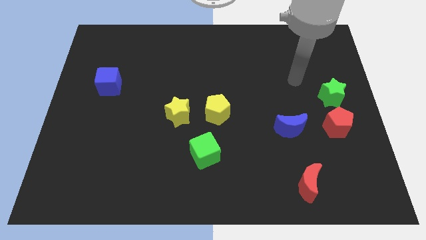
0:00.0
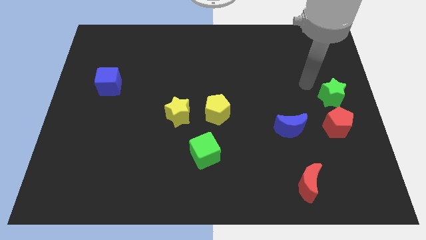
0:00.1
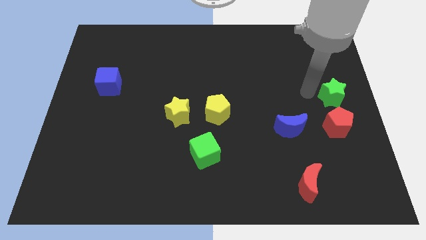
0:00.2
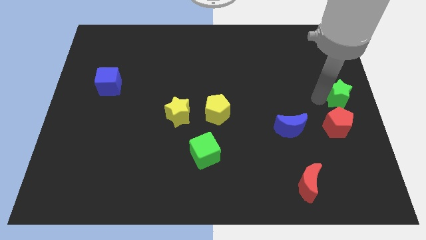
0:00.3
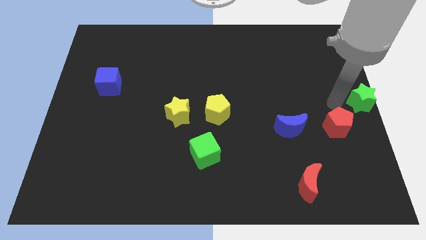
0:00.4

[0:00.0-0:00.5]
move the red pentagon away from the green star

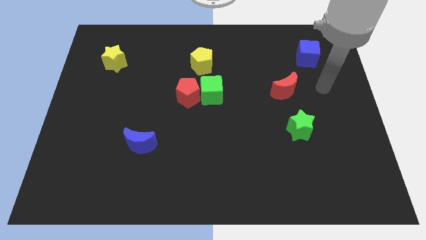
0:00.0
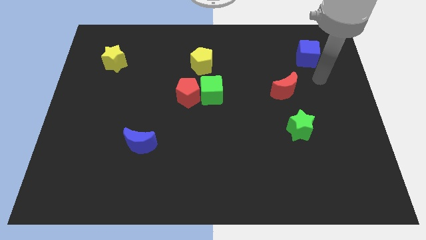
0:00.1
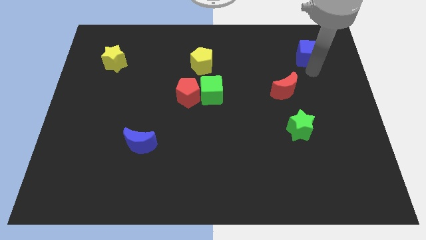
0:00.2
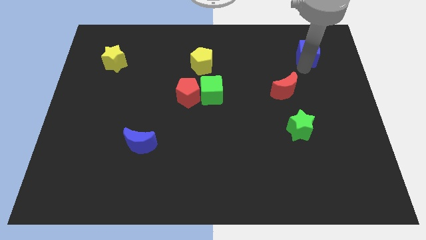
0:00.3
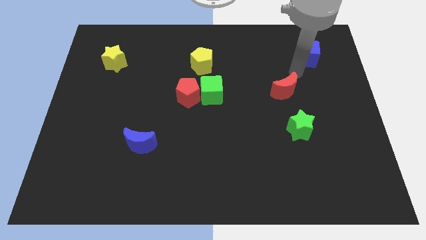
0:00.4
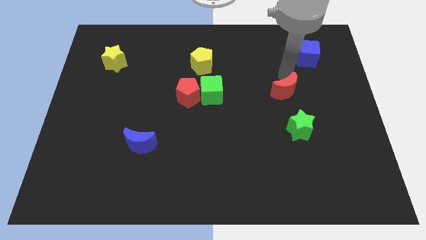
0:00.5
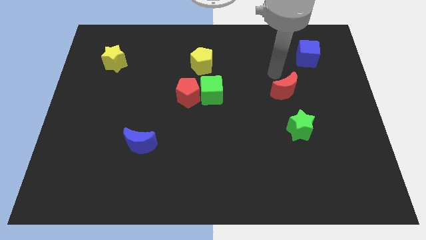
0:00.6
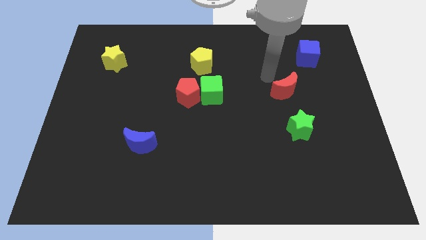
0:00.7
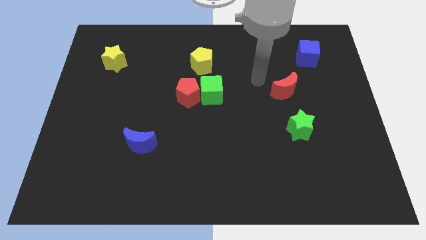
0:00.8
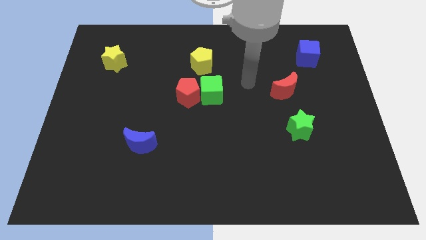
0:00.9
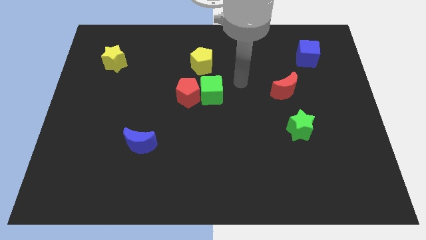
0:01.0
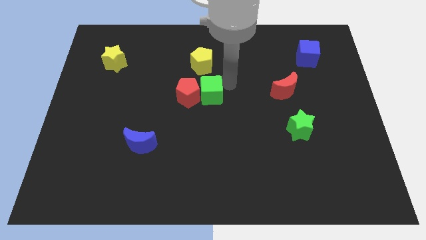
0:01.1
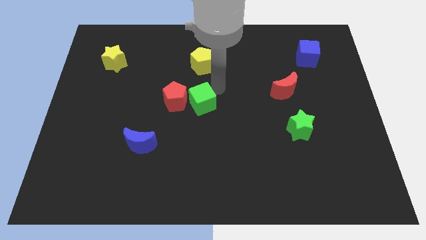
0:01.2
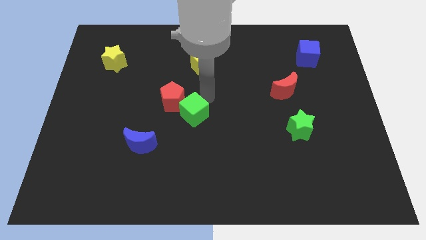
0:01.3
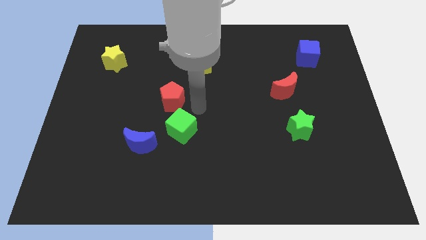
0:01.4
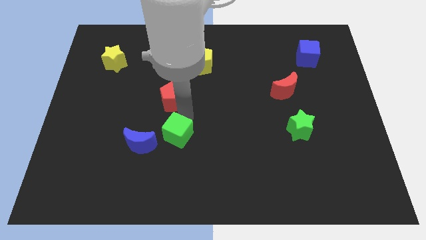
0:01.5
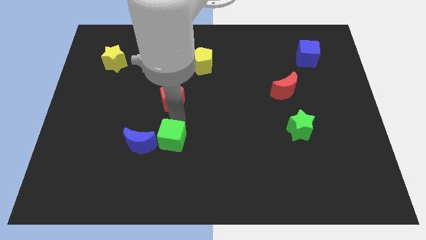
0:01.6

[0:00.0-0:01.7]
move the red pentagon away from the green cube

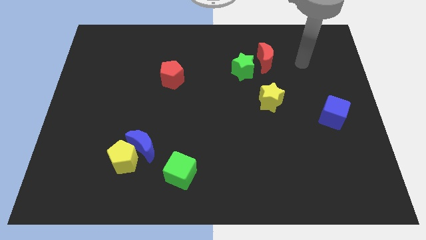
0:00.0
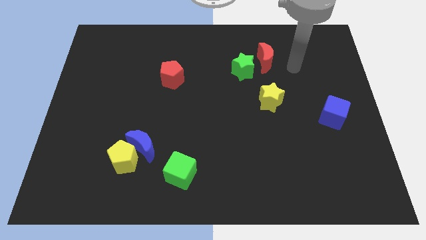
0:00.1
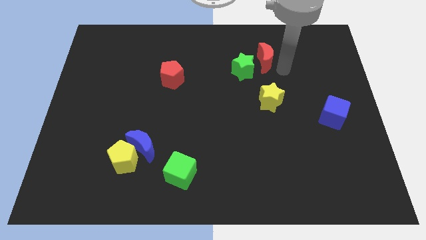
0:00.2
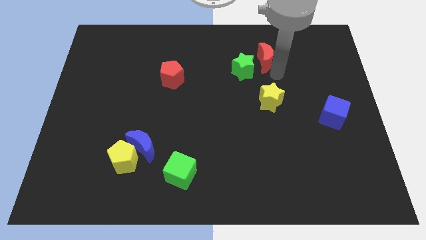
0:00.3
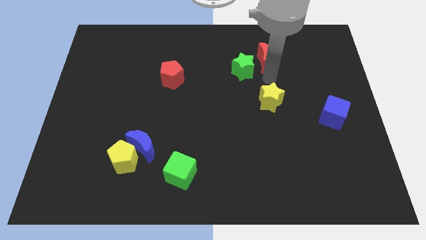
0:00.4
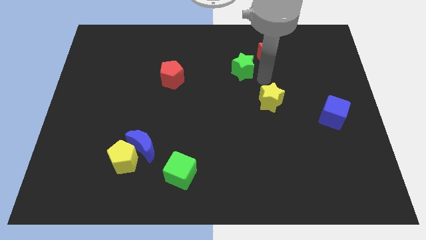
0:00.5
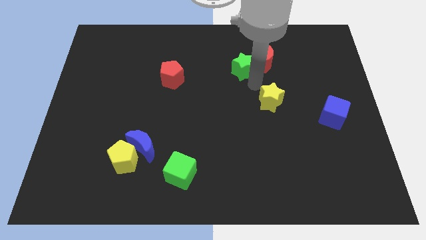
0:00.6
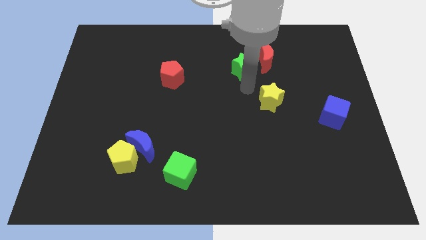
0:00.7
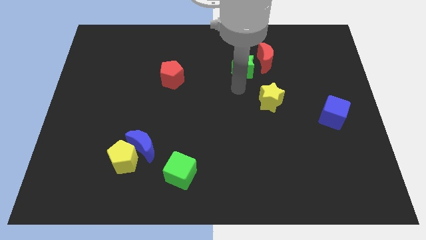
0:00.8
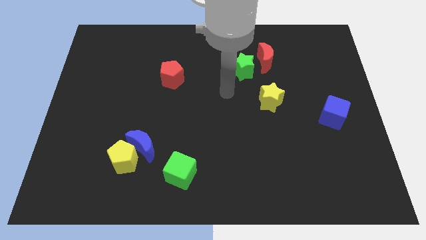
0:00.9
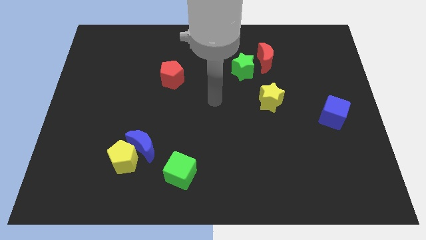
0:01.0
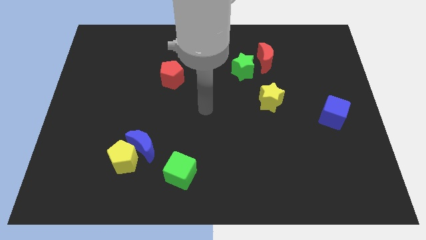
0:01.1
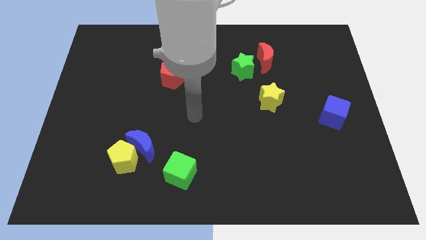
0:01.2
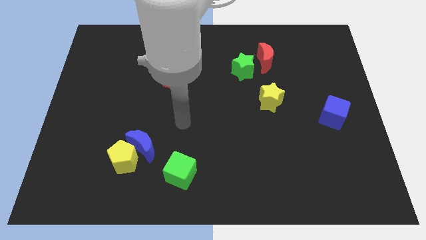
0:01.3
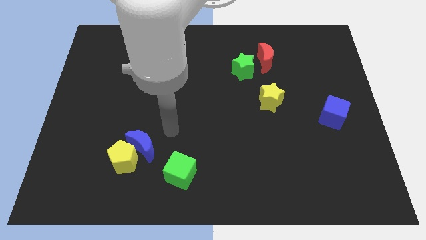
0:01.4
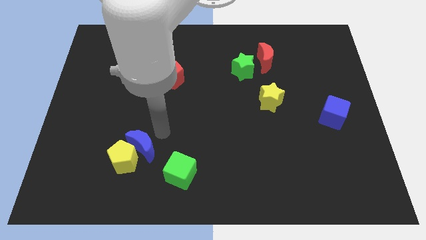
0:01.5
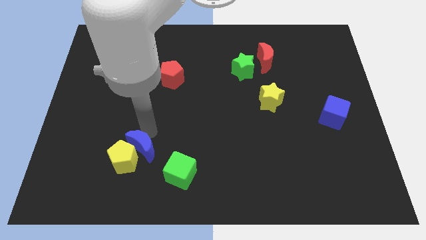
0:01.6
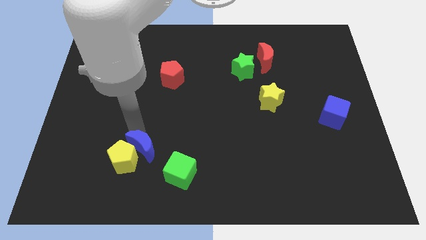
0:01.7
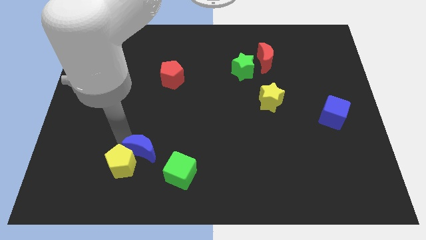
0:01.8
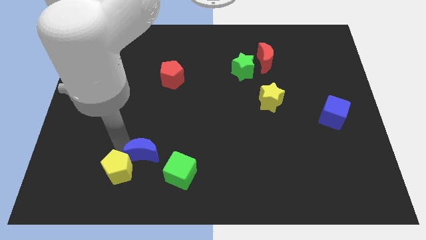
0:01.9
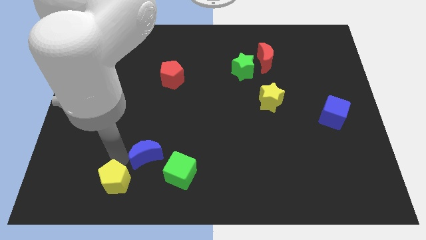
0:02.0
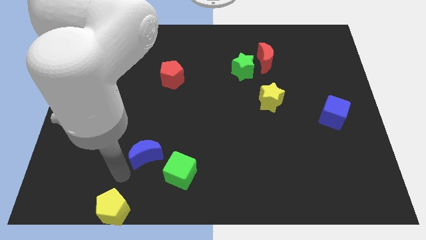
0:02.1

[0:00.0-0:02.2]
move the blue moon away from the yellow pentagon

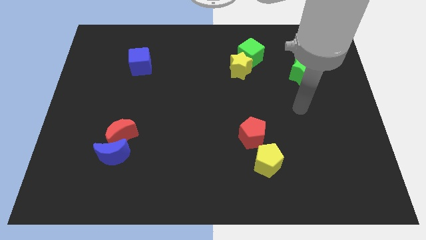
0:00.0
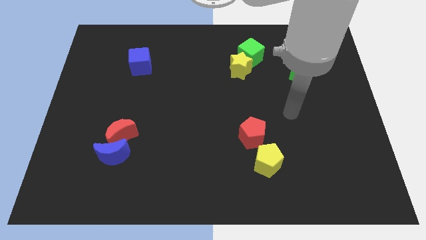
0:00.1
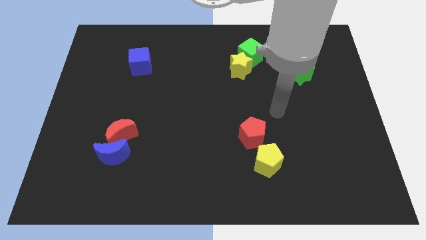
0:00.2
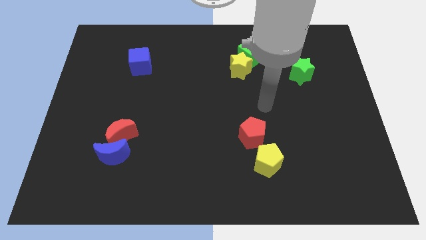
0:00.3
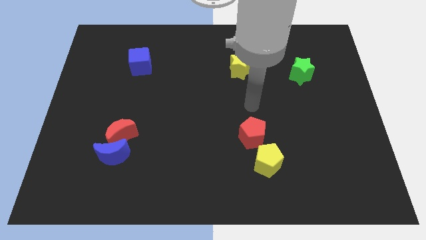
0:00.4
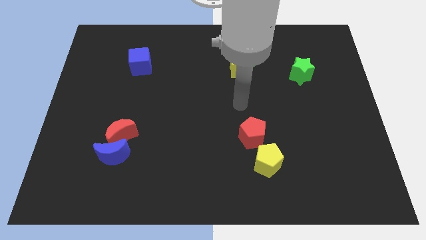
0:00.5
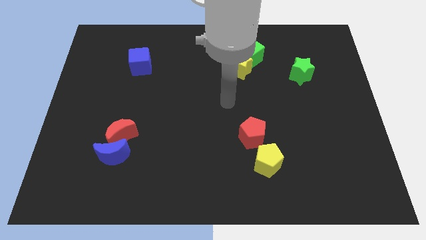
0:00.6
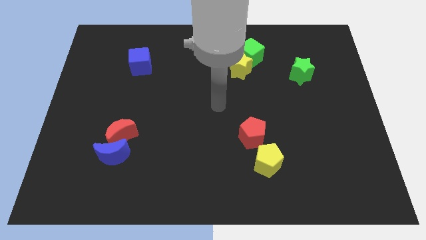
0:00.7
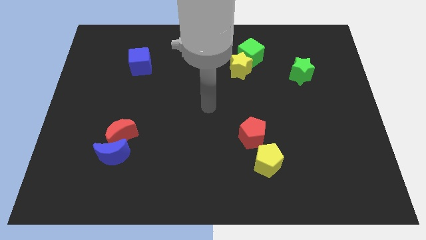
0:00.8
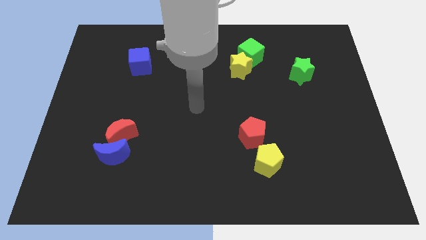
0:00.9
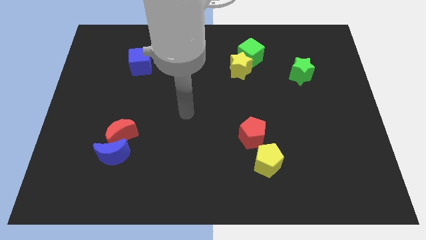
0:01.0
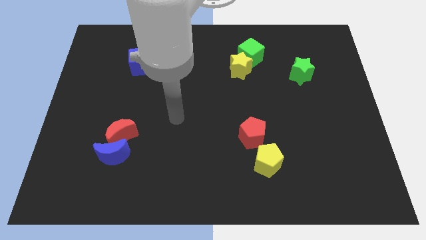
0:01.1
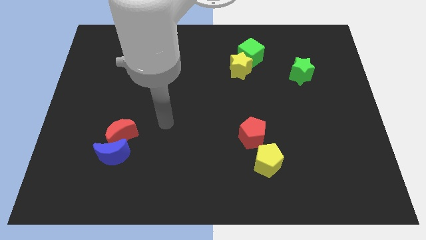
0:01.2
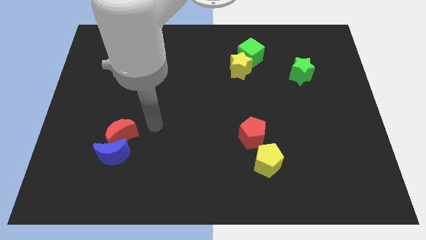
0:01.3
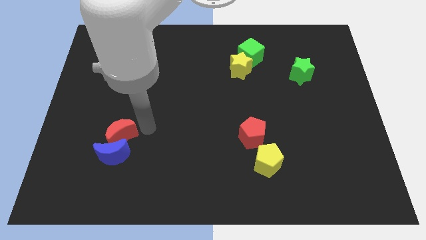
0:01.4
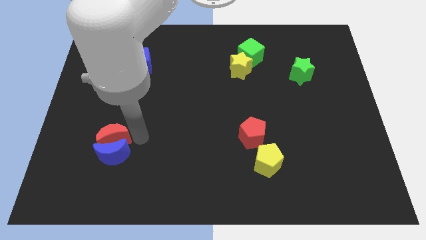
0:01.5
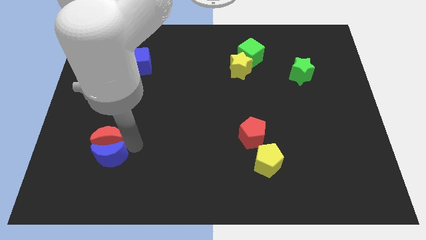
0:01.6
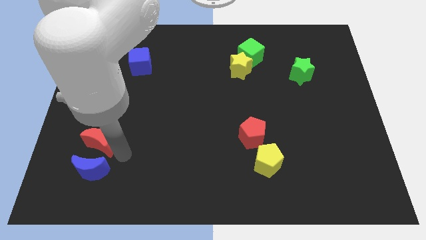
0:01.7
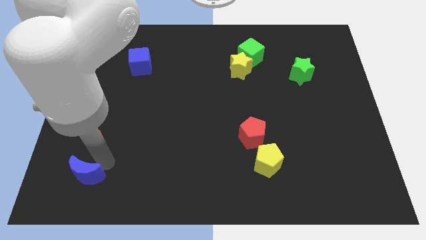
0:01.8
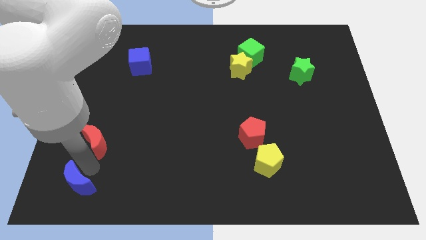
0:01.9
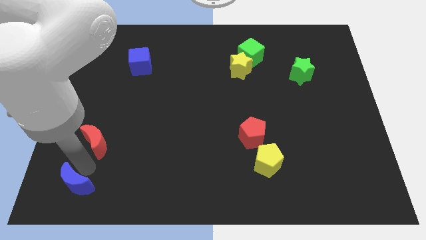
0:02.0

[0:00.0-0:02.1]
pull the red moon apart from the blue moon

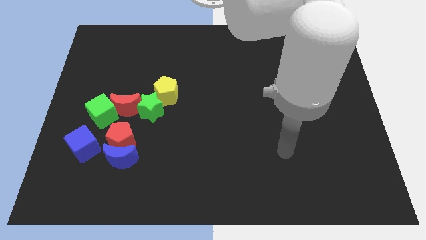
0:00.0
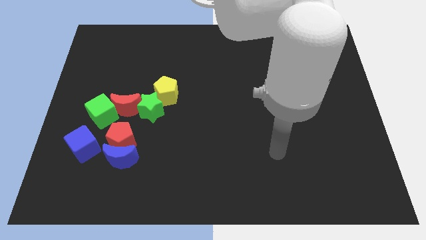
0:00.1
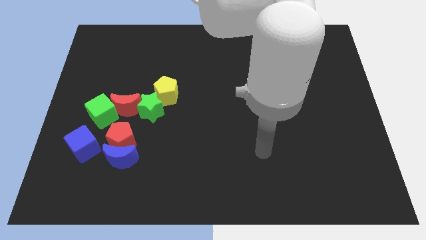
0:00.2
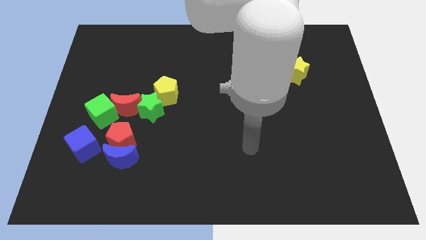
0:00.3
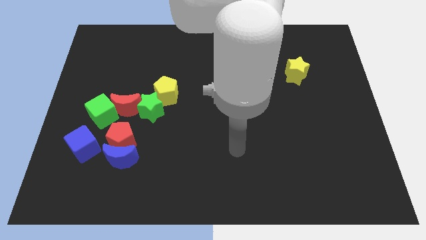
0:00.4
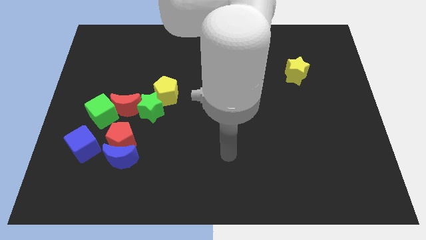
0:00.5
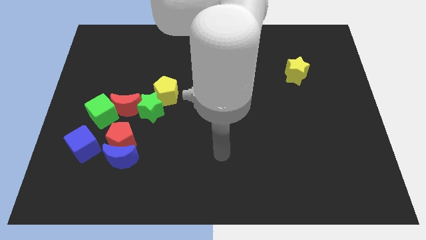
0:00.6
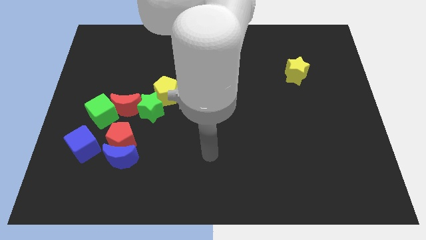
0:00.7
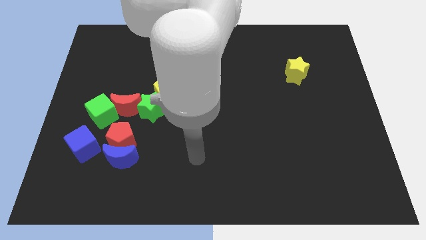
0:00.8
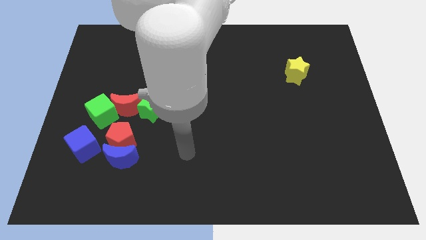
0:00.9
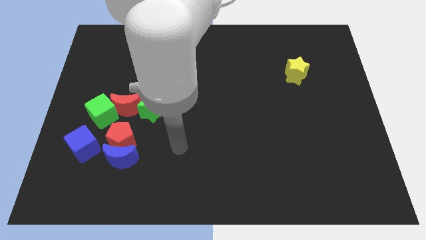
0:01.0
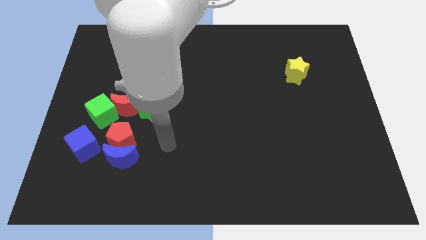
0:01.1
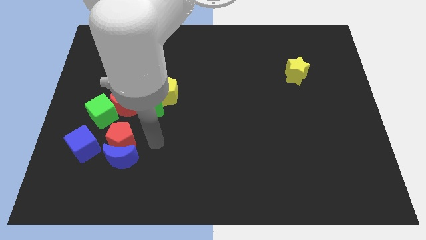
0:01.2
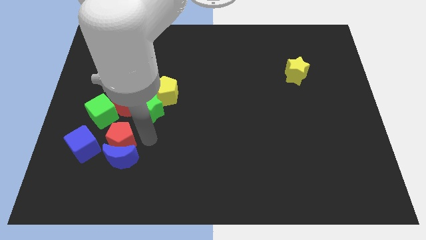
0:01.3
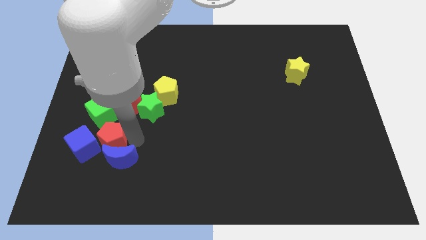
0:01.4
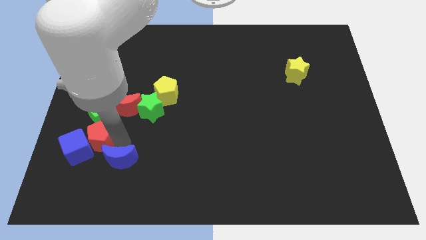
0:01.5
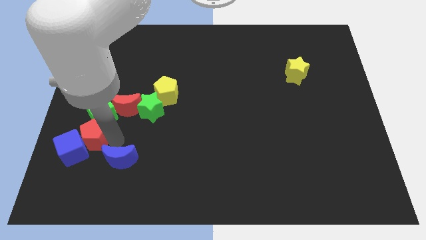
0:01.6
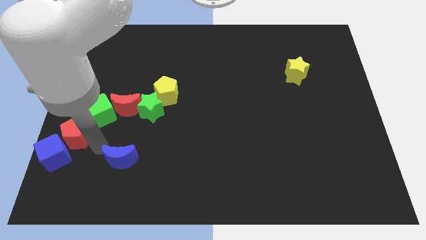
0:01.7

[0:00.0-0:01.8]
pull the blue moon apart from the red pentagon and blue cube

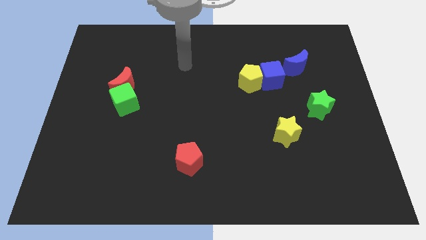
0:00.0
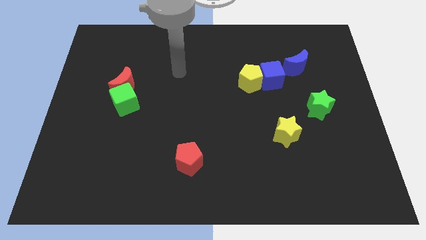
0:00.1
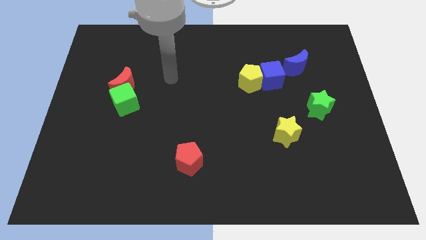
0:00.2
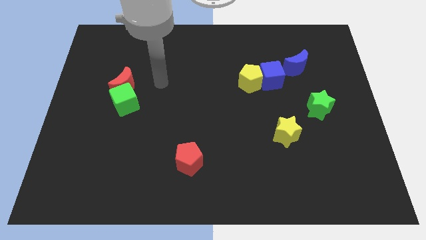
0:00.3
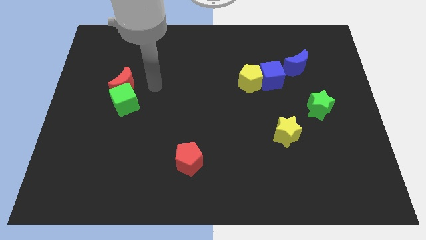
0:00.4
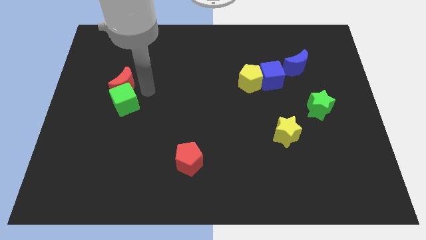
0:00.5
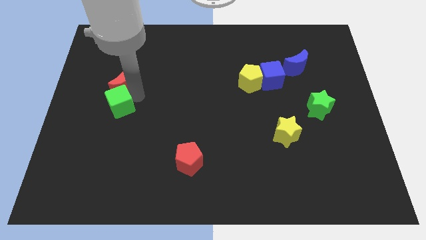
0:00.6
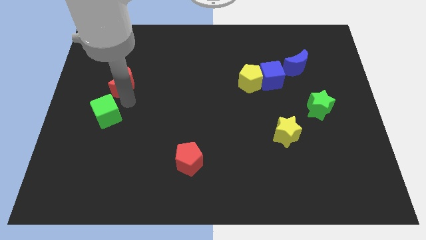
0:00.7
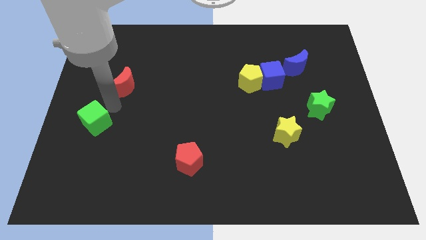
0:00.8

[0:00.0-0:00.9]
move the red moon away from the green cube

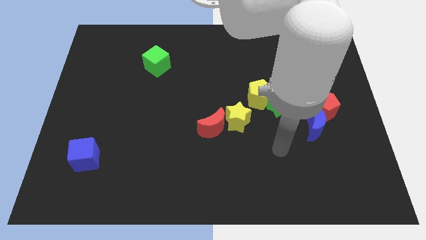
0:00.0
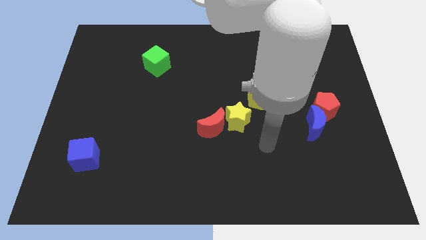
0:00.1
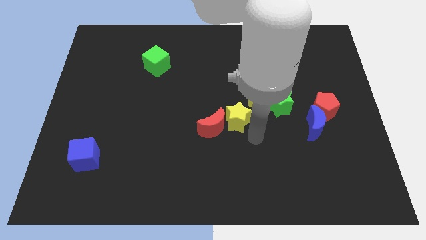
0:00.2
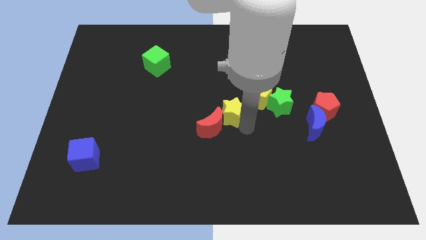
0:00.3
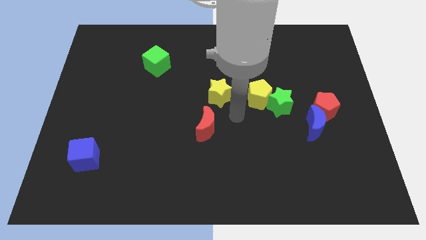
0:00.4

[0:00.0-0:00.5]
separate the red moon from the yellow star
